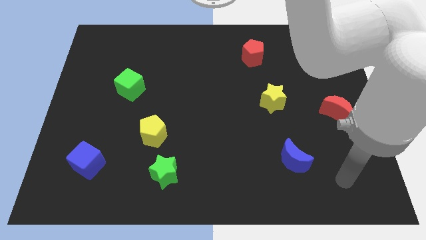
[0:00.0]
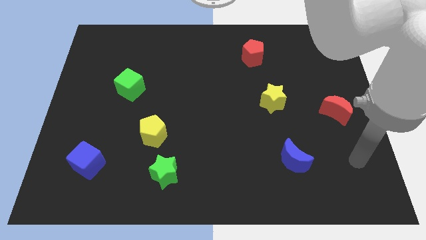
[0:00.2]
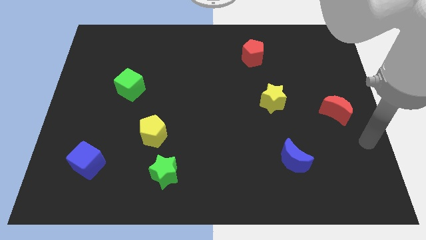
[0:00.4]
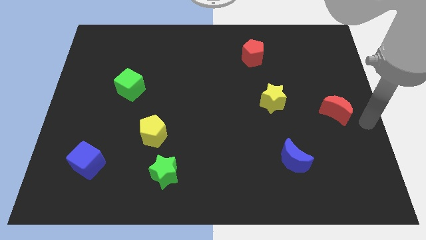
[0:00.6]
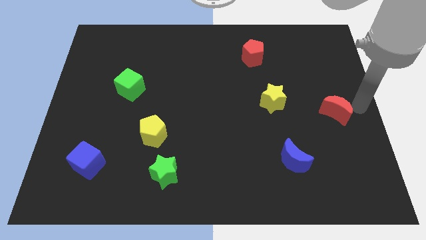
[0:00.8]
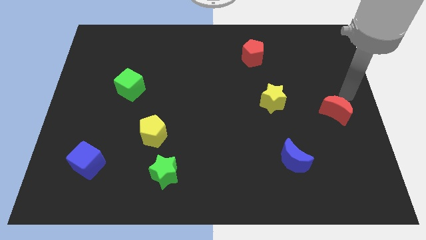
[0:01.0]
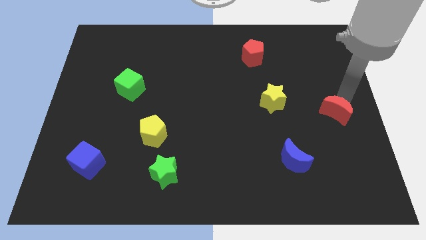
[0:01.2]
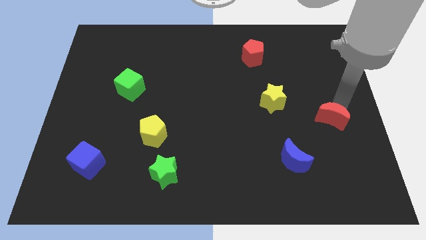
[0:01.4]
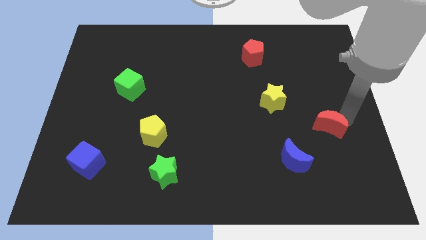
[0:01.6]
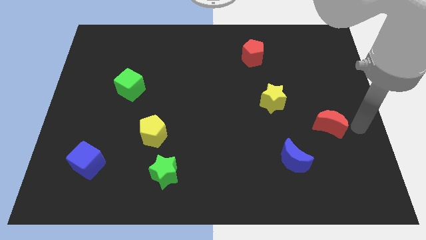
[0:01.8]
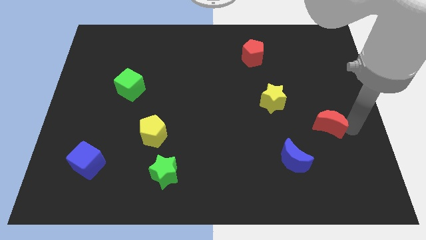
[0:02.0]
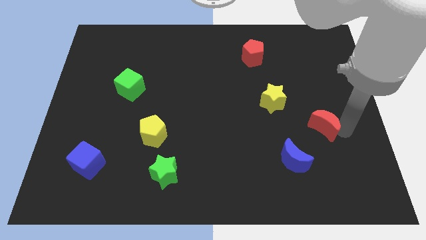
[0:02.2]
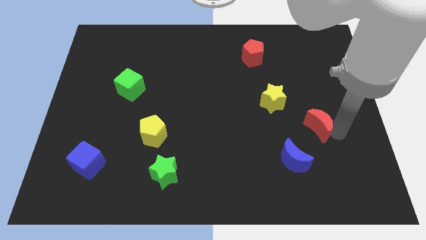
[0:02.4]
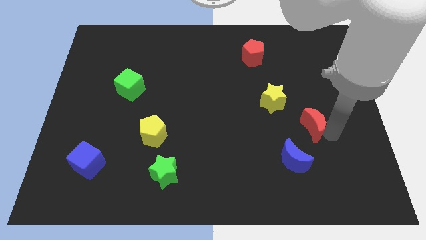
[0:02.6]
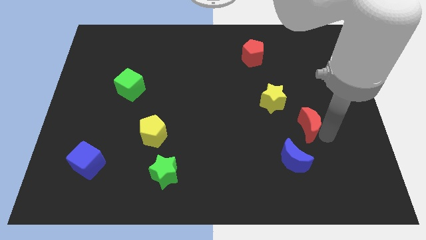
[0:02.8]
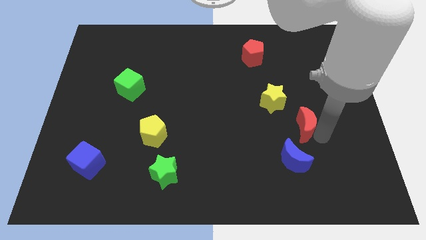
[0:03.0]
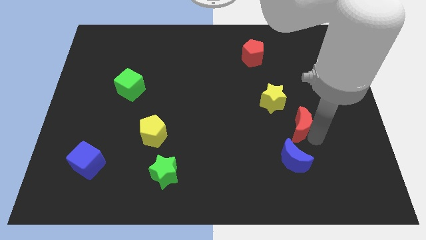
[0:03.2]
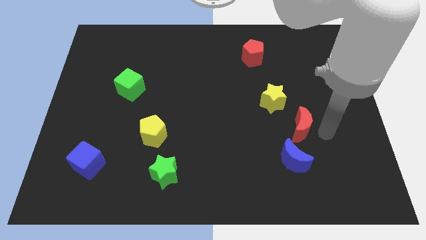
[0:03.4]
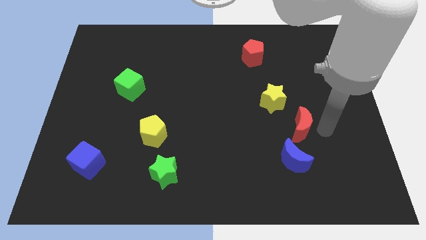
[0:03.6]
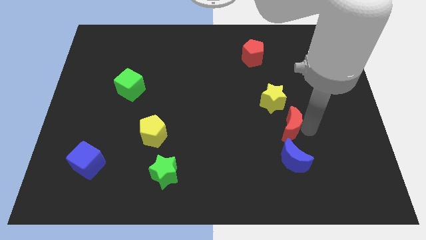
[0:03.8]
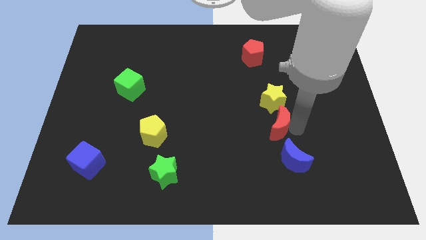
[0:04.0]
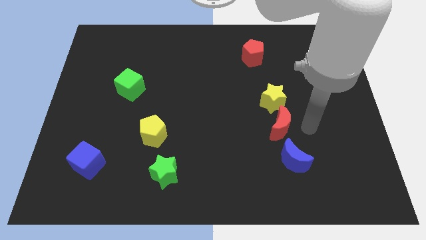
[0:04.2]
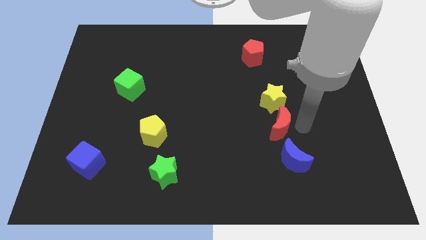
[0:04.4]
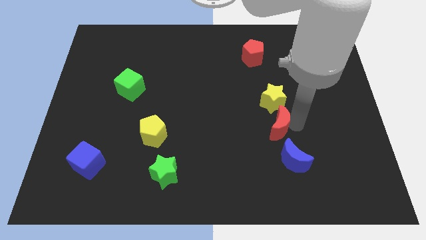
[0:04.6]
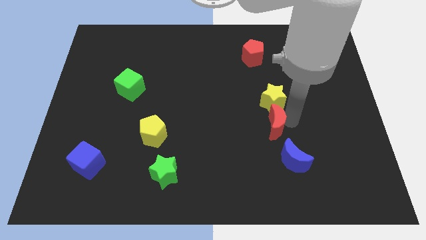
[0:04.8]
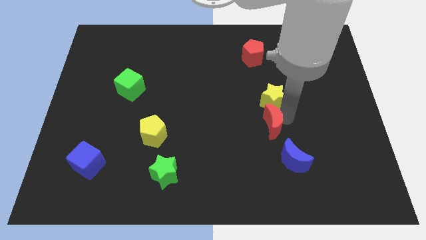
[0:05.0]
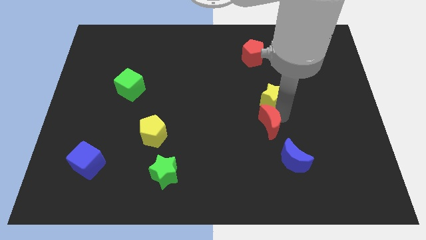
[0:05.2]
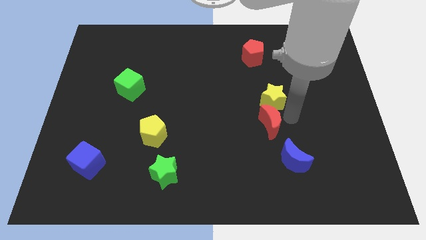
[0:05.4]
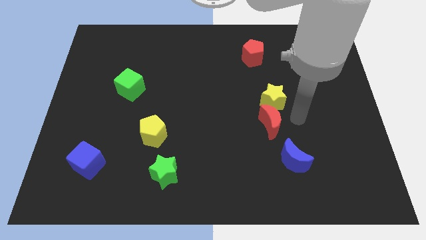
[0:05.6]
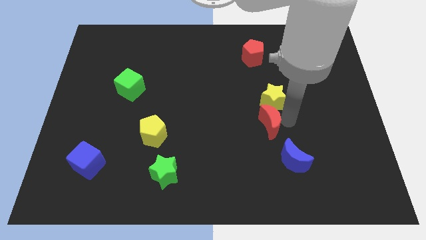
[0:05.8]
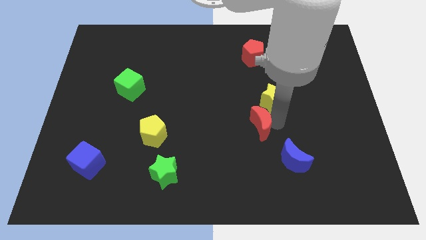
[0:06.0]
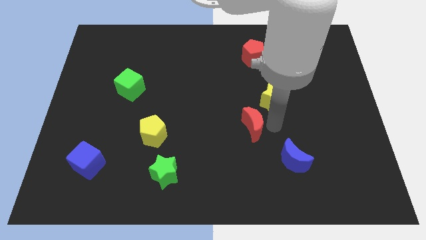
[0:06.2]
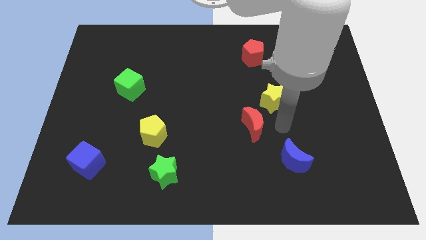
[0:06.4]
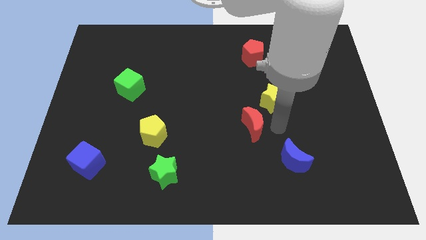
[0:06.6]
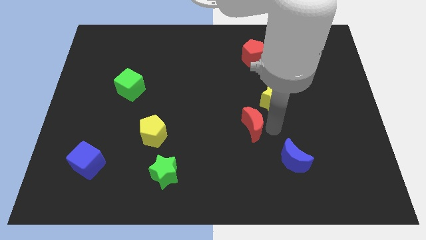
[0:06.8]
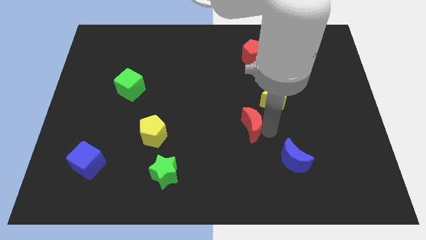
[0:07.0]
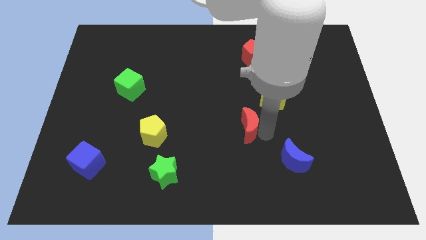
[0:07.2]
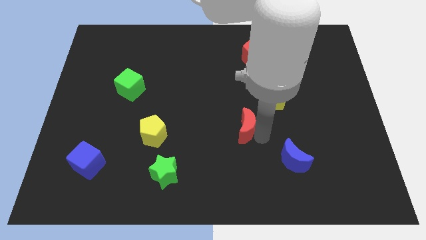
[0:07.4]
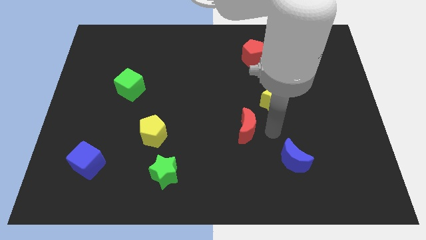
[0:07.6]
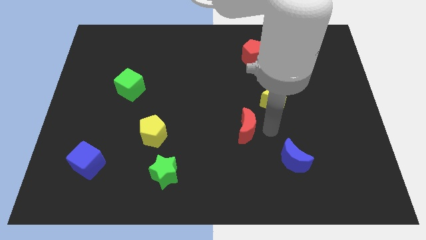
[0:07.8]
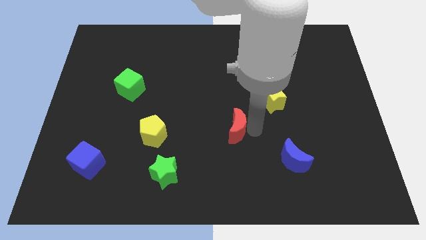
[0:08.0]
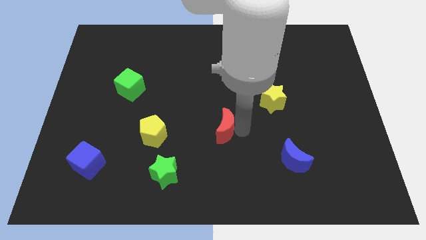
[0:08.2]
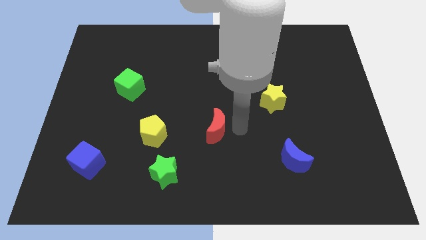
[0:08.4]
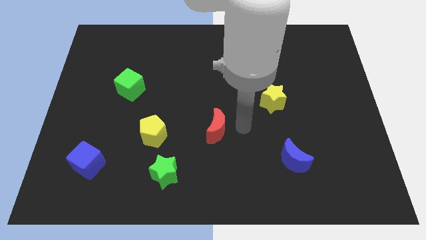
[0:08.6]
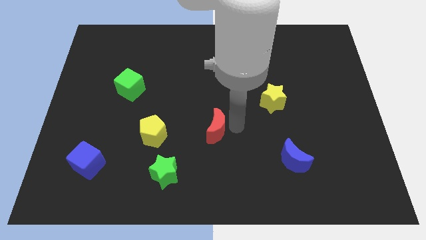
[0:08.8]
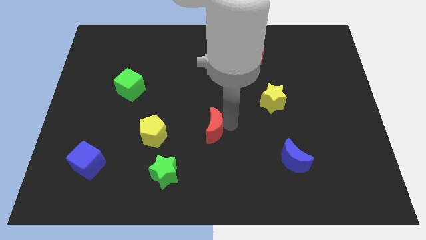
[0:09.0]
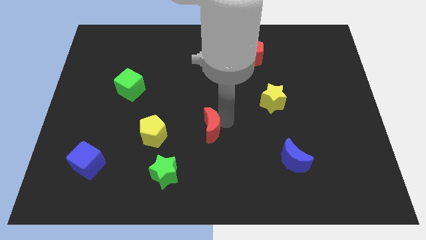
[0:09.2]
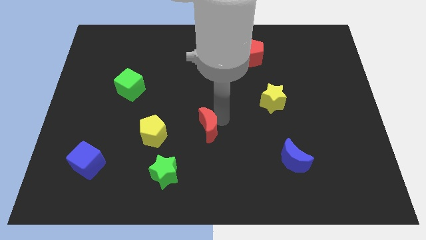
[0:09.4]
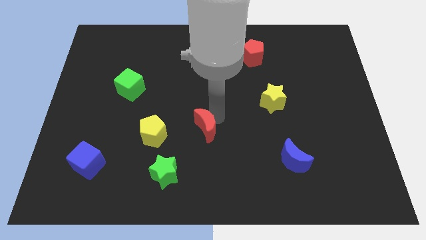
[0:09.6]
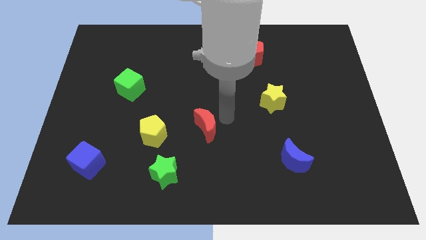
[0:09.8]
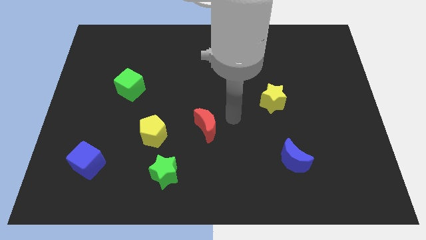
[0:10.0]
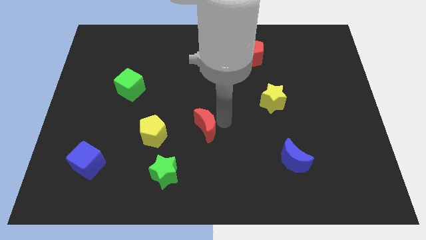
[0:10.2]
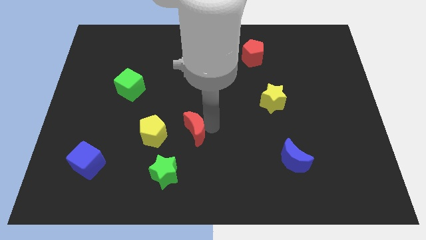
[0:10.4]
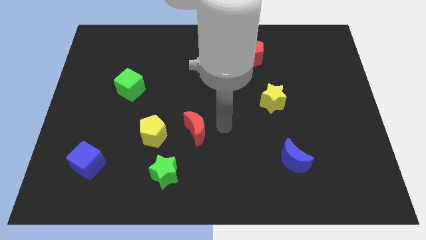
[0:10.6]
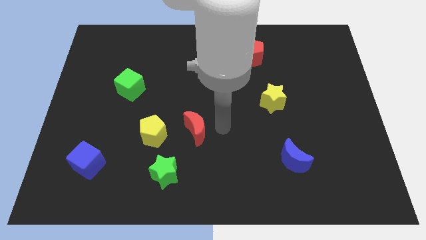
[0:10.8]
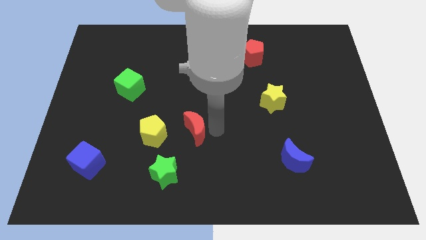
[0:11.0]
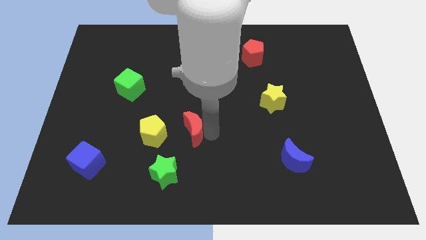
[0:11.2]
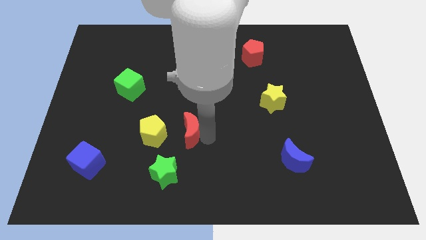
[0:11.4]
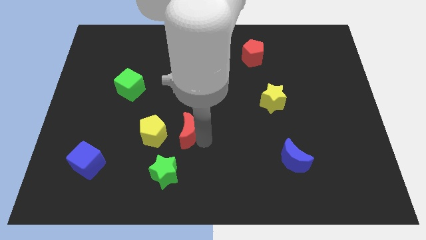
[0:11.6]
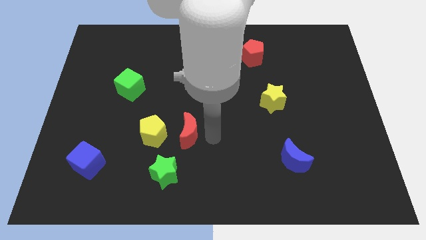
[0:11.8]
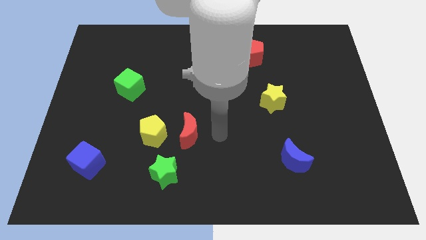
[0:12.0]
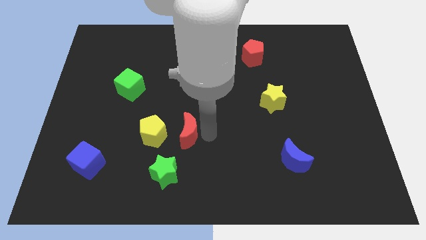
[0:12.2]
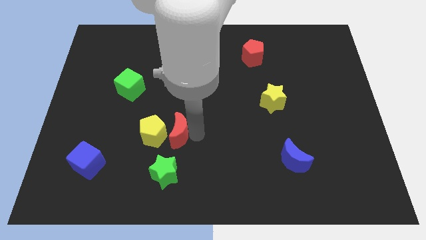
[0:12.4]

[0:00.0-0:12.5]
push the red moon next to the yellow pentagon

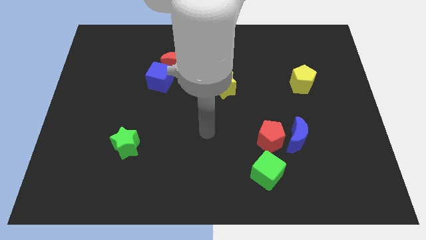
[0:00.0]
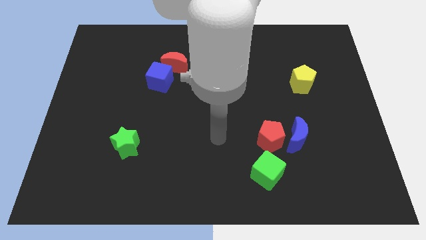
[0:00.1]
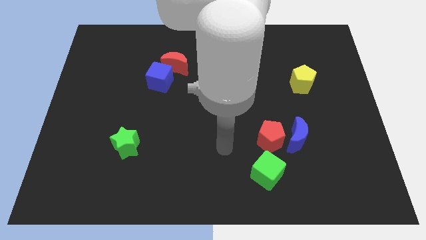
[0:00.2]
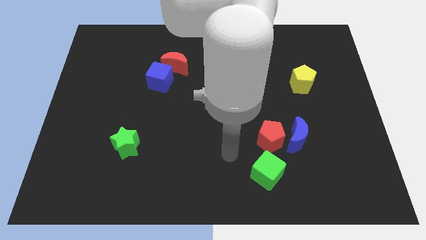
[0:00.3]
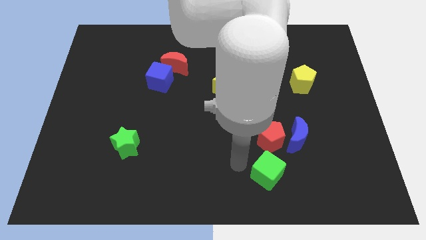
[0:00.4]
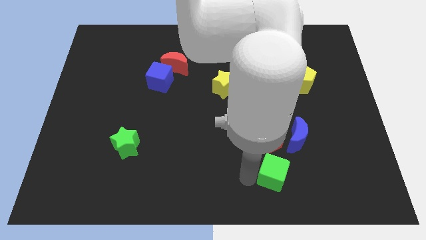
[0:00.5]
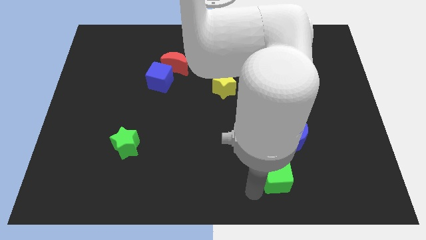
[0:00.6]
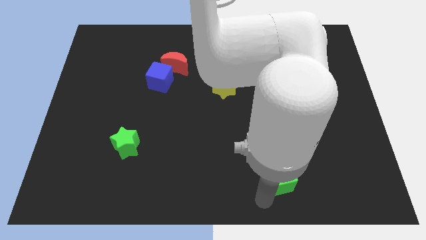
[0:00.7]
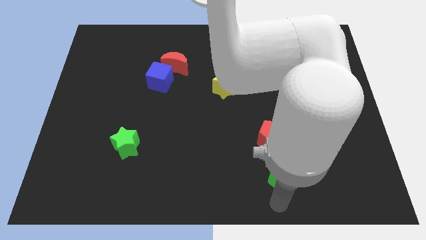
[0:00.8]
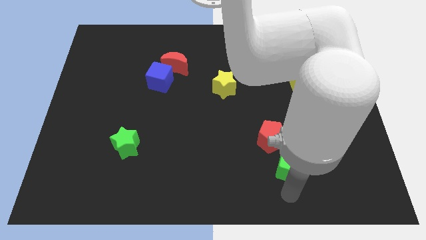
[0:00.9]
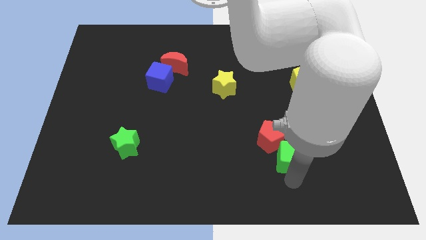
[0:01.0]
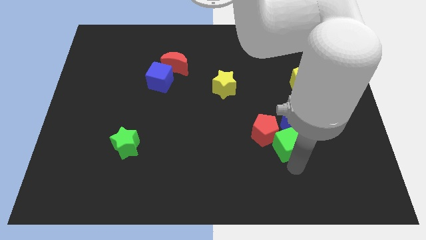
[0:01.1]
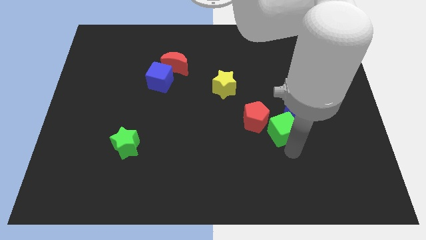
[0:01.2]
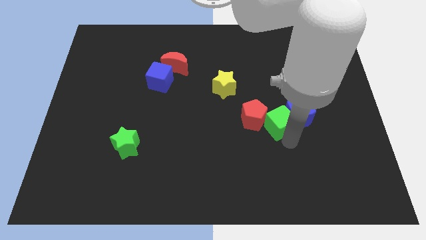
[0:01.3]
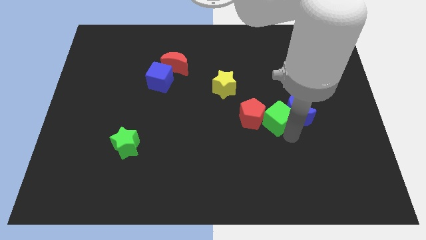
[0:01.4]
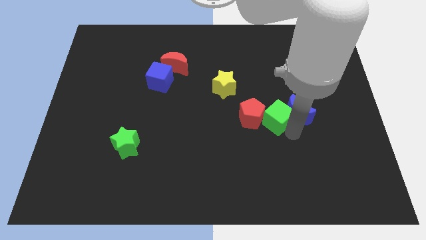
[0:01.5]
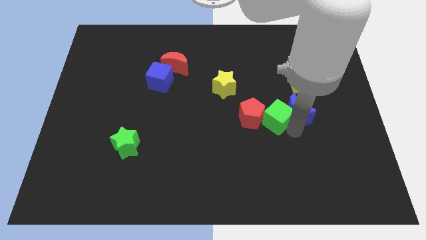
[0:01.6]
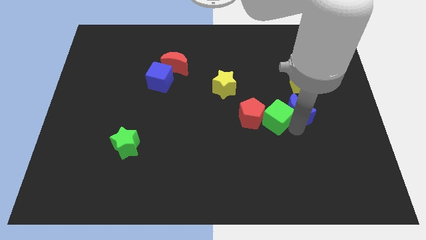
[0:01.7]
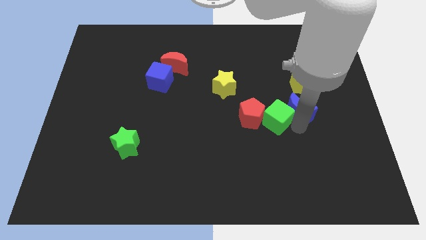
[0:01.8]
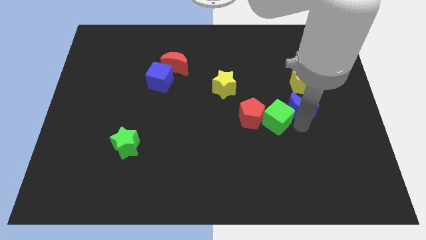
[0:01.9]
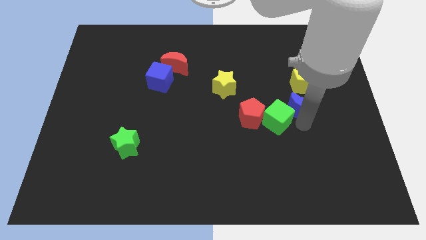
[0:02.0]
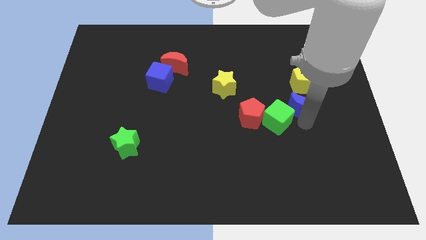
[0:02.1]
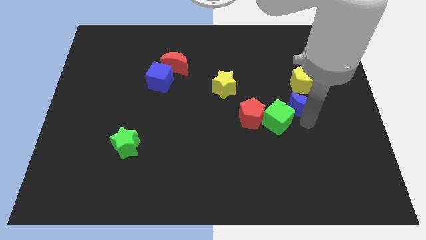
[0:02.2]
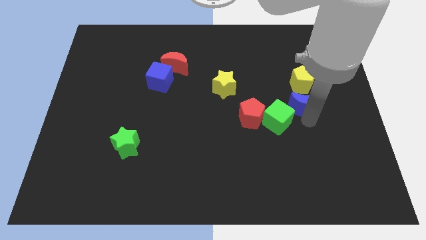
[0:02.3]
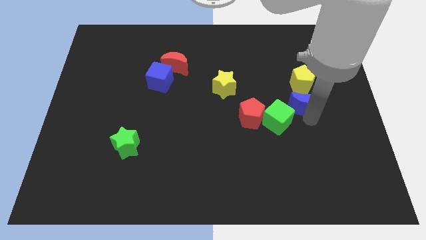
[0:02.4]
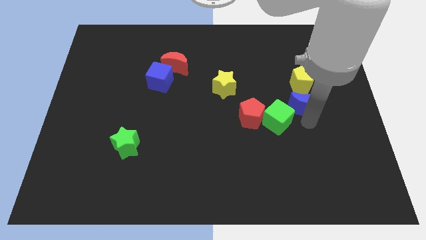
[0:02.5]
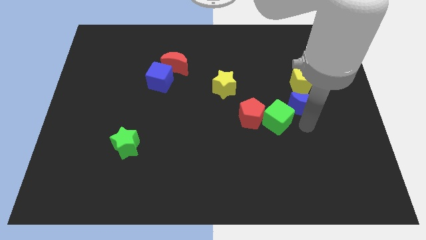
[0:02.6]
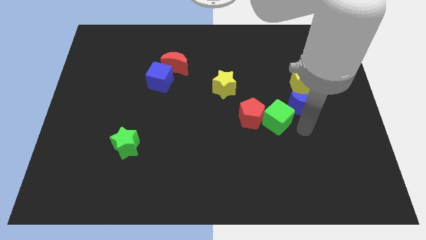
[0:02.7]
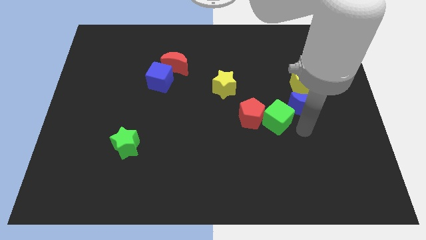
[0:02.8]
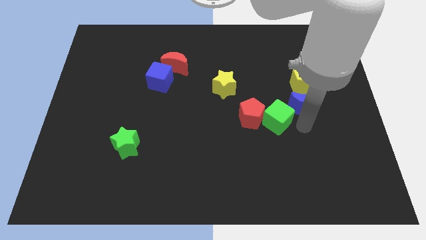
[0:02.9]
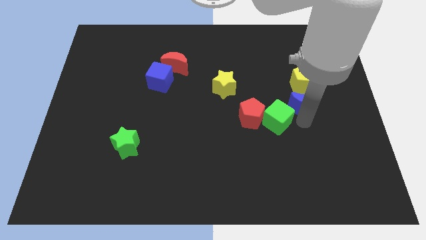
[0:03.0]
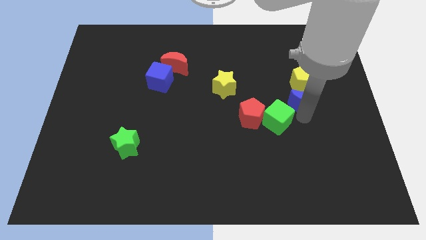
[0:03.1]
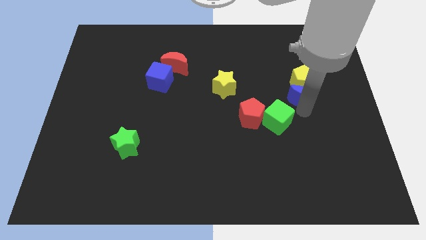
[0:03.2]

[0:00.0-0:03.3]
put the blue moon next to the yellow pentagon
